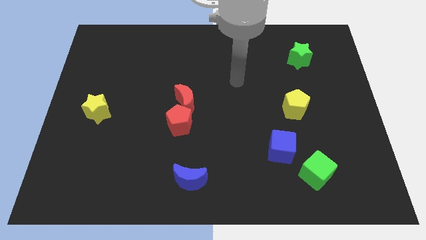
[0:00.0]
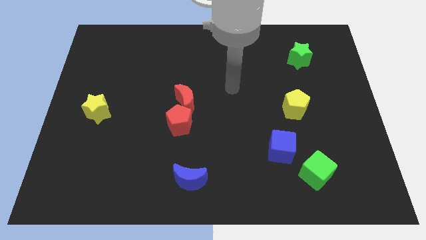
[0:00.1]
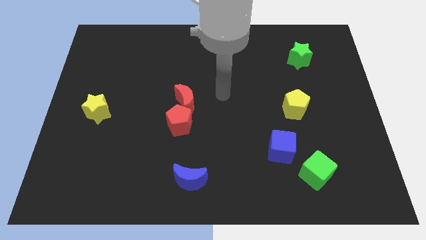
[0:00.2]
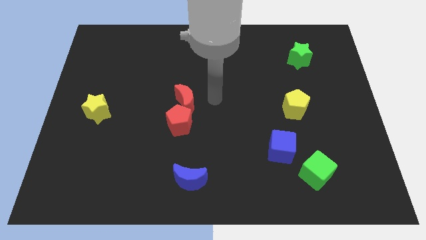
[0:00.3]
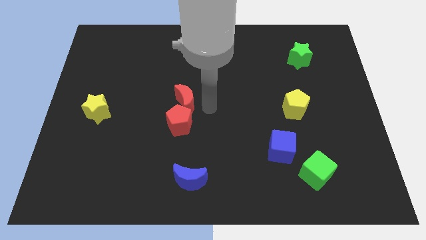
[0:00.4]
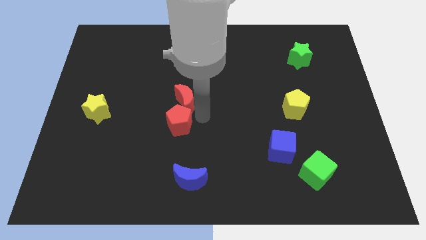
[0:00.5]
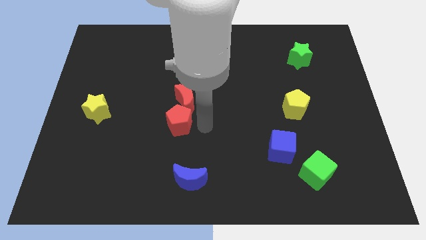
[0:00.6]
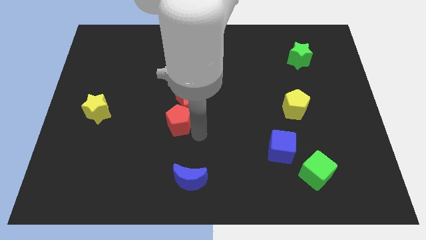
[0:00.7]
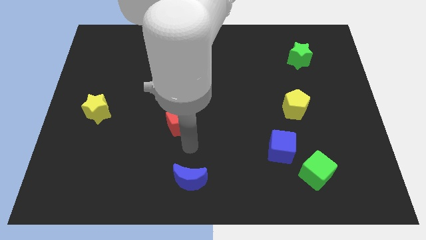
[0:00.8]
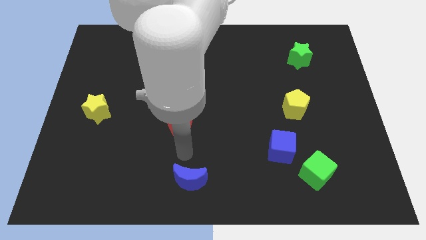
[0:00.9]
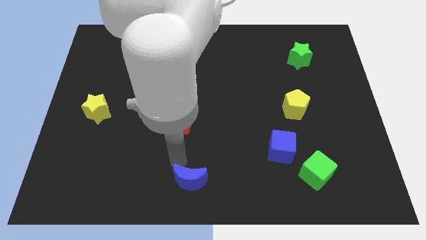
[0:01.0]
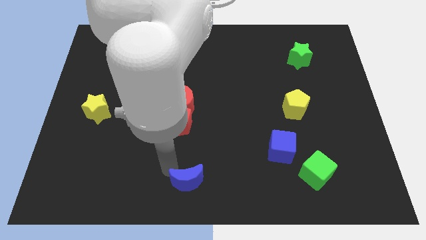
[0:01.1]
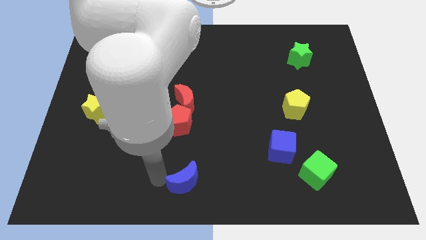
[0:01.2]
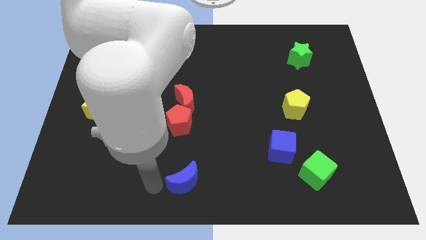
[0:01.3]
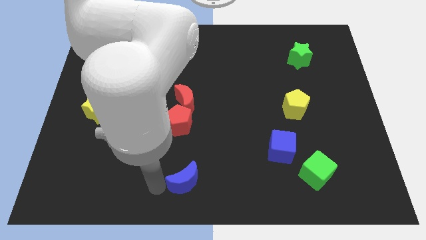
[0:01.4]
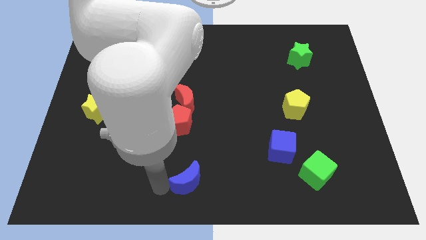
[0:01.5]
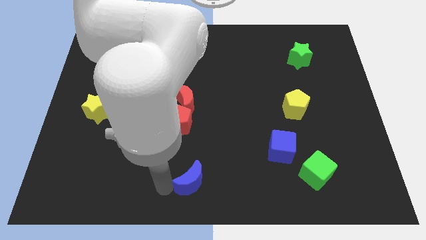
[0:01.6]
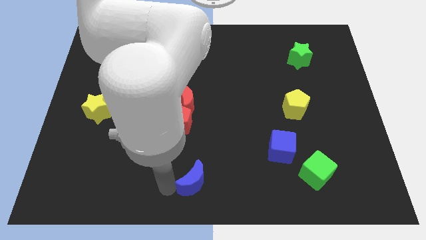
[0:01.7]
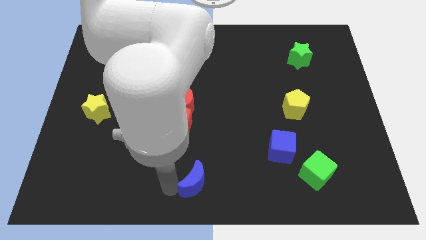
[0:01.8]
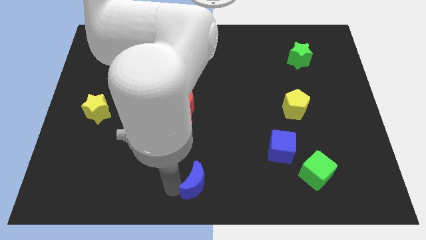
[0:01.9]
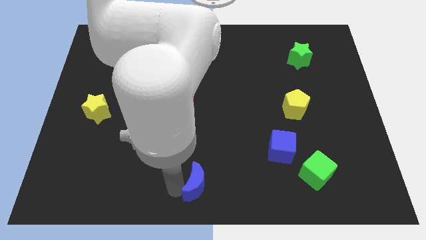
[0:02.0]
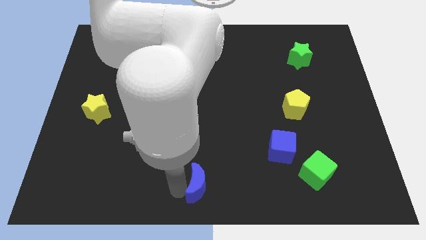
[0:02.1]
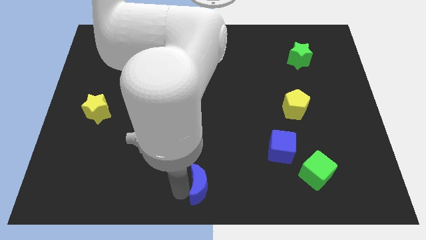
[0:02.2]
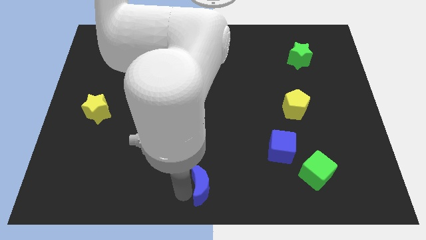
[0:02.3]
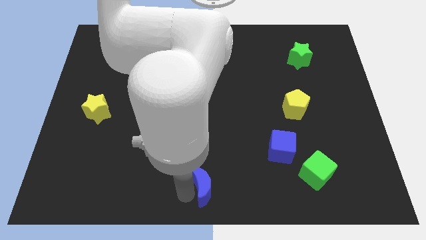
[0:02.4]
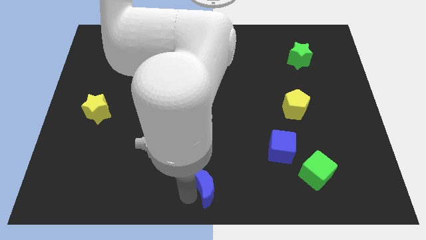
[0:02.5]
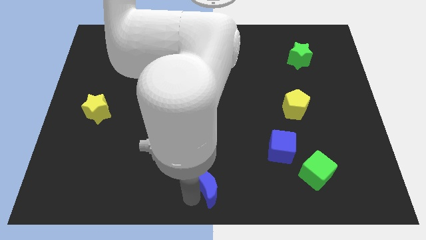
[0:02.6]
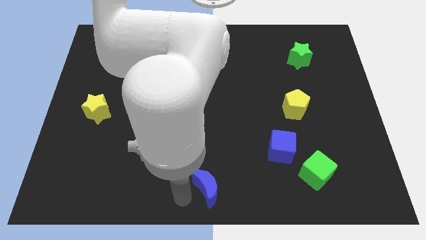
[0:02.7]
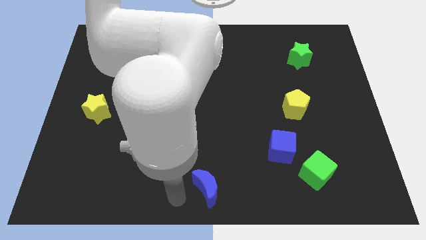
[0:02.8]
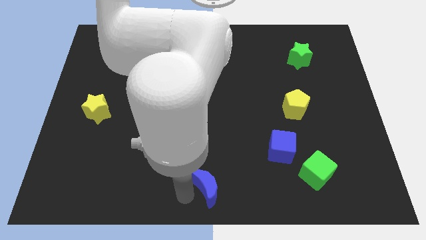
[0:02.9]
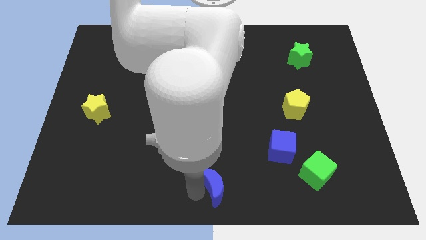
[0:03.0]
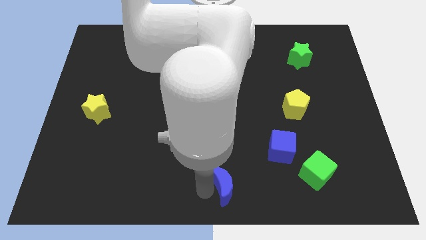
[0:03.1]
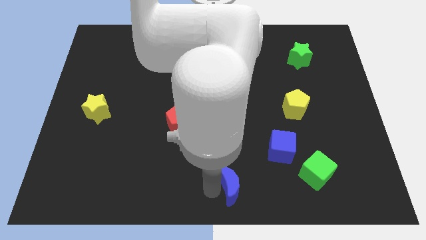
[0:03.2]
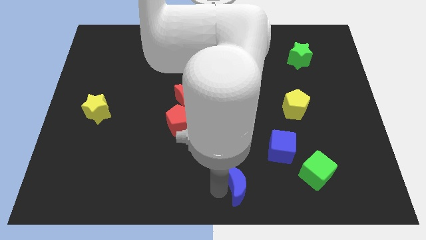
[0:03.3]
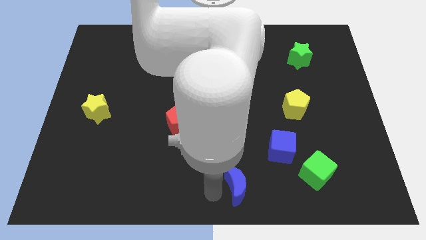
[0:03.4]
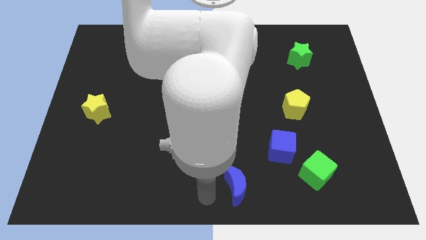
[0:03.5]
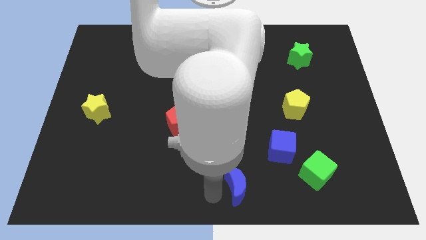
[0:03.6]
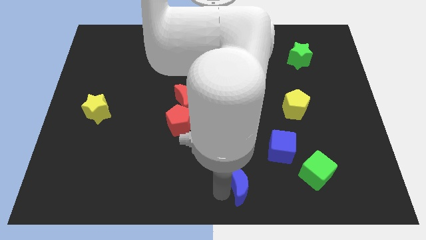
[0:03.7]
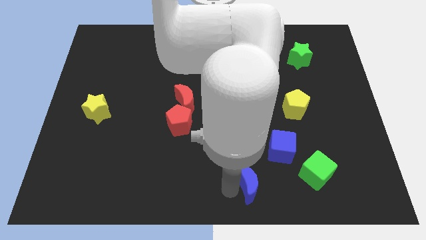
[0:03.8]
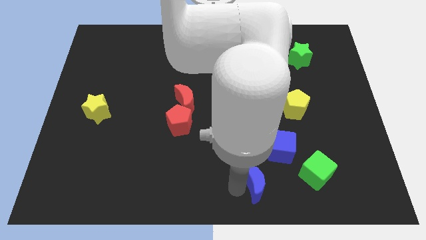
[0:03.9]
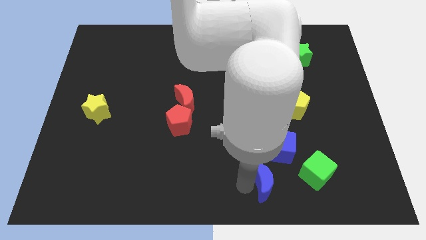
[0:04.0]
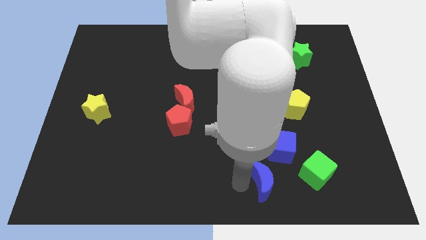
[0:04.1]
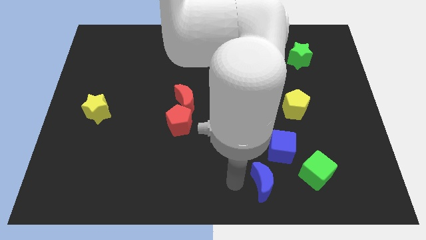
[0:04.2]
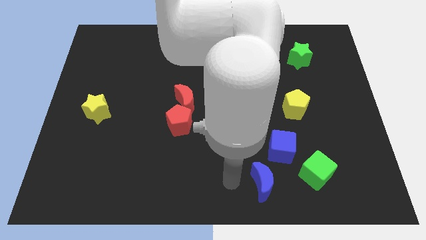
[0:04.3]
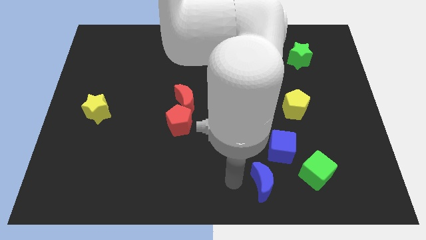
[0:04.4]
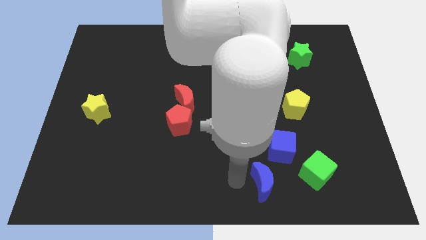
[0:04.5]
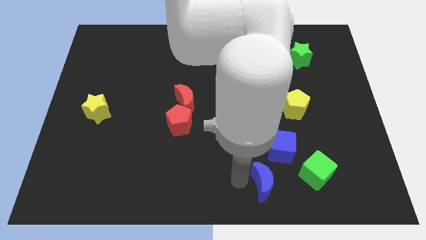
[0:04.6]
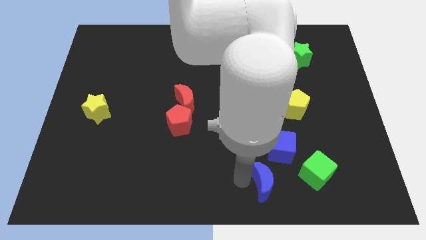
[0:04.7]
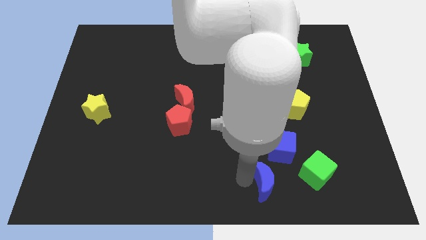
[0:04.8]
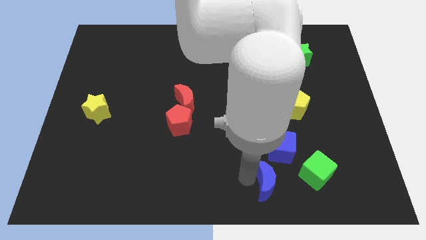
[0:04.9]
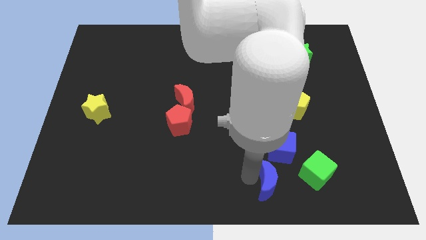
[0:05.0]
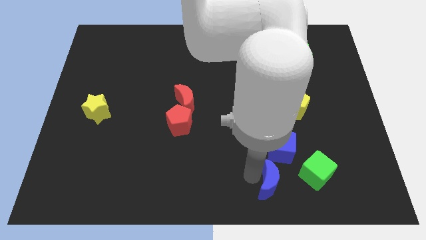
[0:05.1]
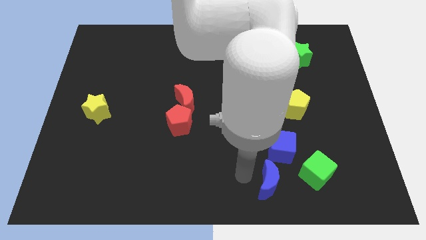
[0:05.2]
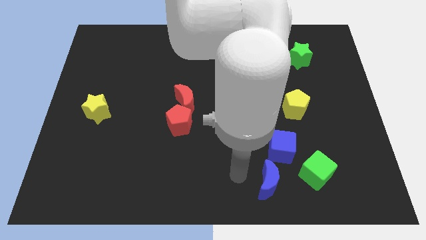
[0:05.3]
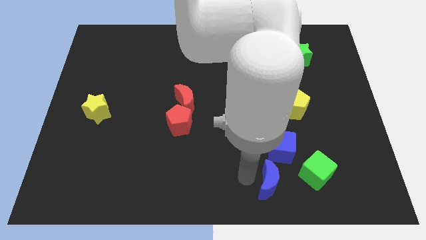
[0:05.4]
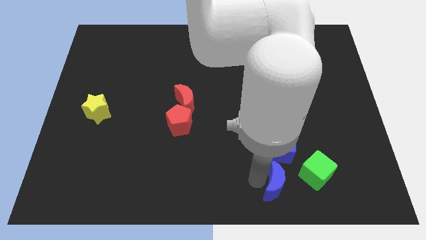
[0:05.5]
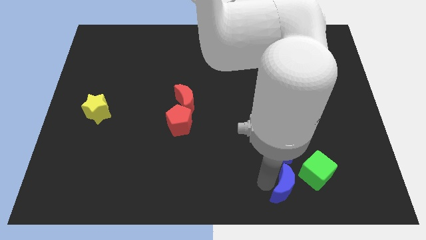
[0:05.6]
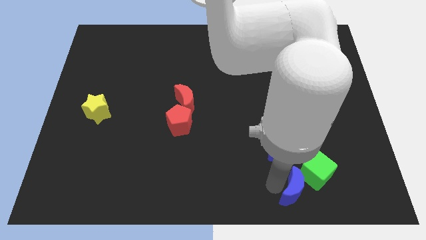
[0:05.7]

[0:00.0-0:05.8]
slide the blue moon to the right

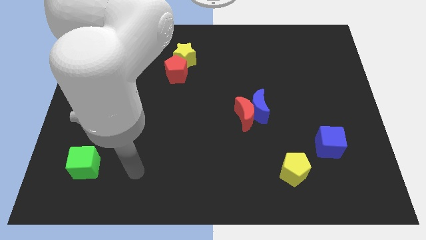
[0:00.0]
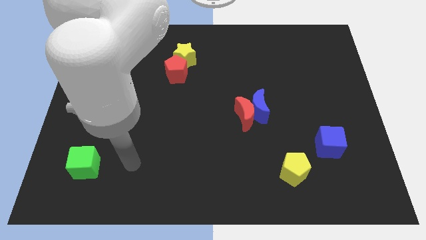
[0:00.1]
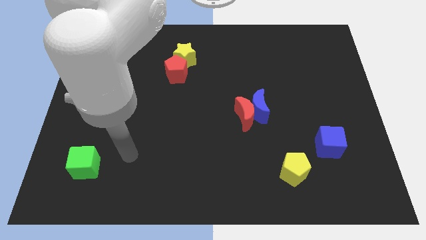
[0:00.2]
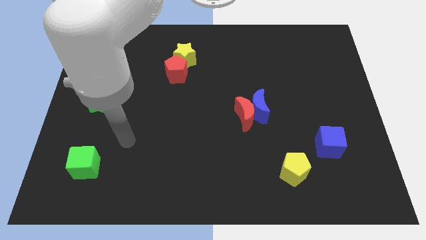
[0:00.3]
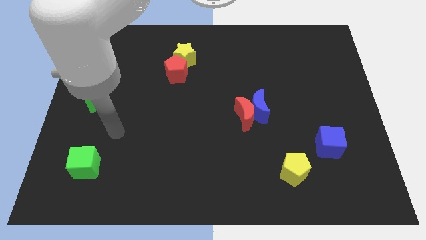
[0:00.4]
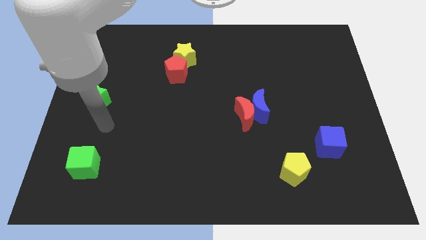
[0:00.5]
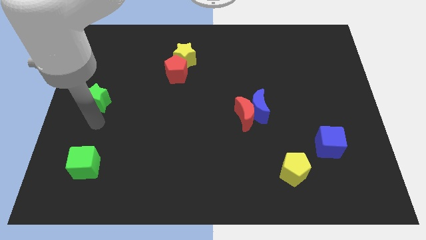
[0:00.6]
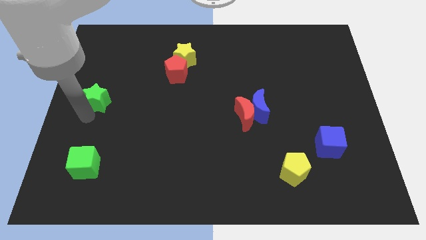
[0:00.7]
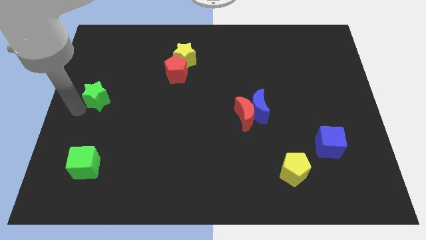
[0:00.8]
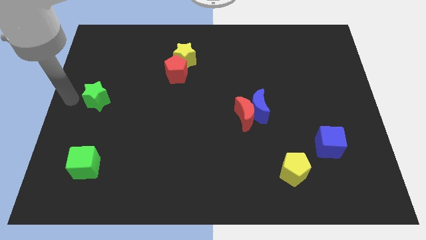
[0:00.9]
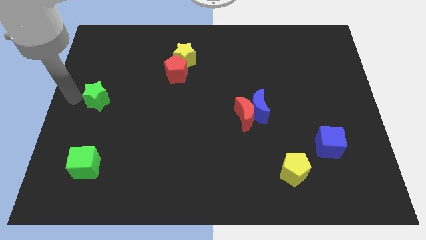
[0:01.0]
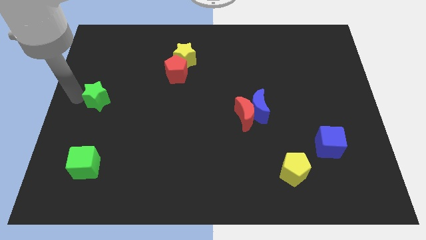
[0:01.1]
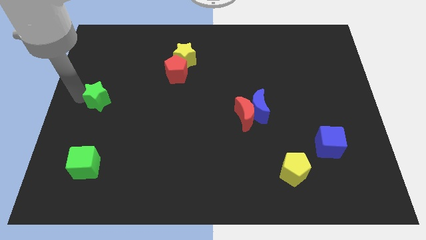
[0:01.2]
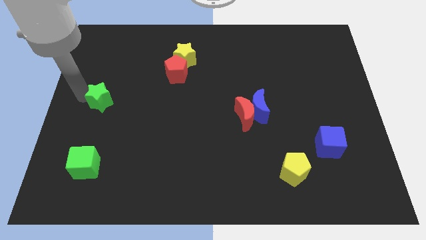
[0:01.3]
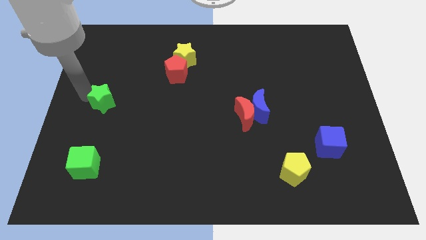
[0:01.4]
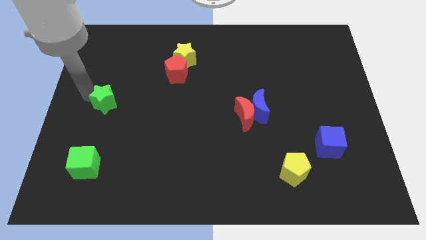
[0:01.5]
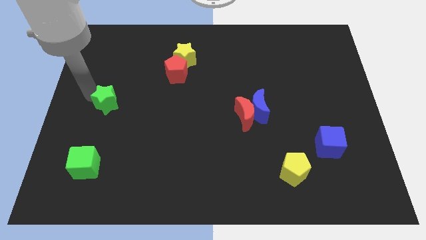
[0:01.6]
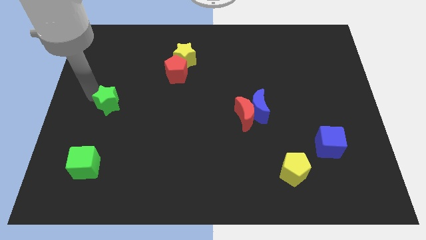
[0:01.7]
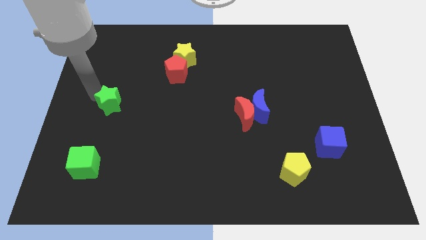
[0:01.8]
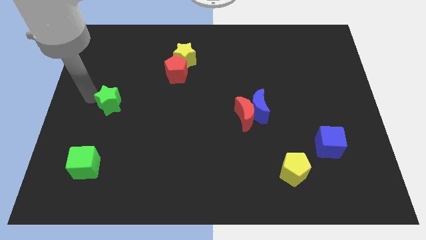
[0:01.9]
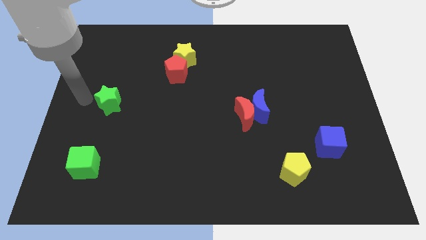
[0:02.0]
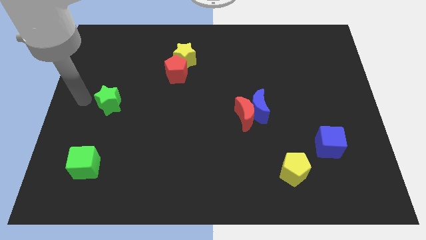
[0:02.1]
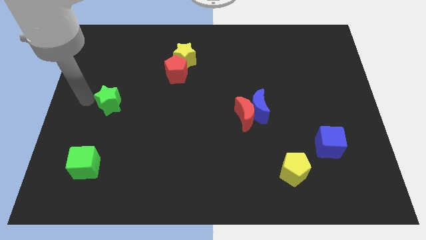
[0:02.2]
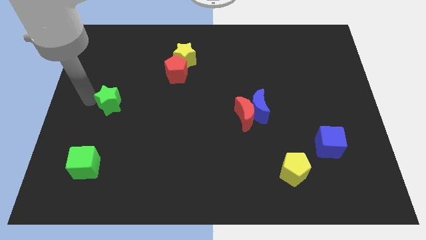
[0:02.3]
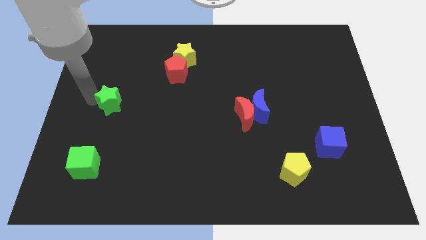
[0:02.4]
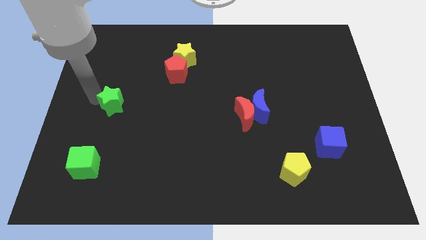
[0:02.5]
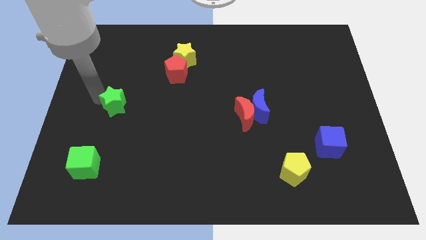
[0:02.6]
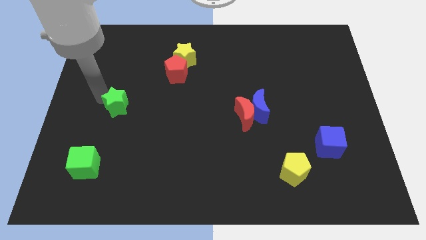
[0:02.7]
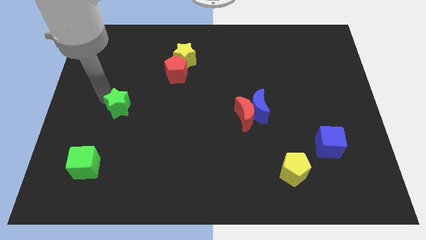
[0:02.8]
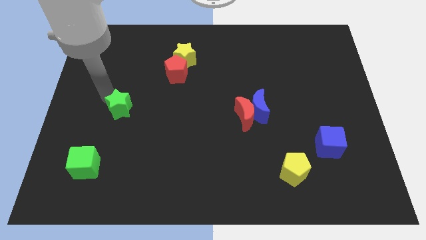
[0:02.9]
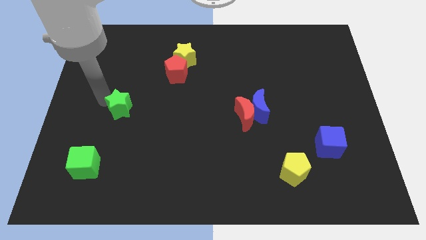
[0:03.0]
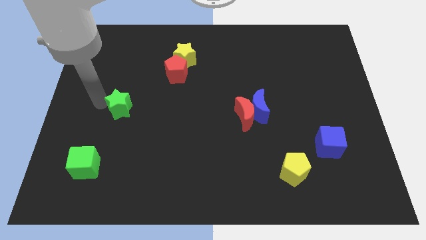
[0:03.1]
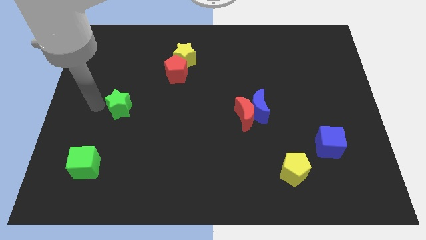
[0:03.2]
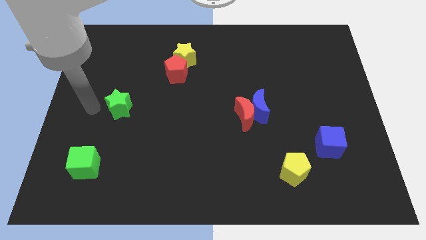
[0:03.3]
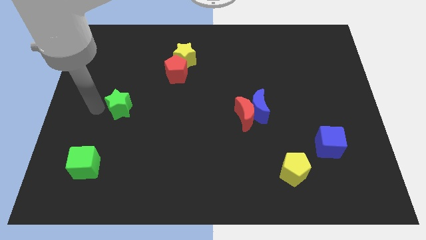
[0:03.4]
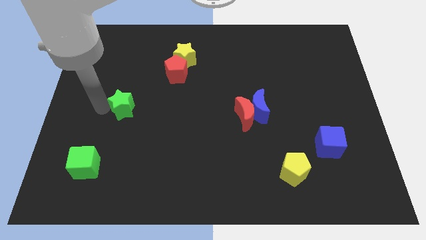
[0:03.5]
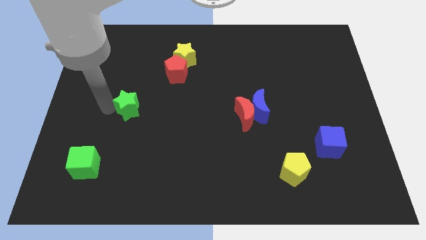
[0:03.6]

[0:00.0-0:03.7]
slightly slide the green star to the right
